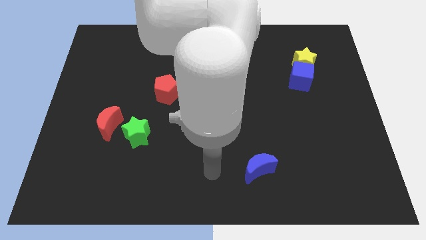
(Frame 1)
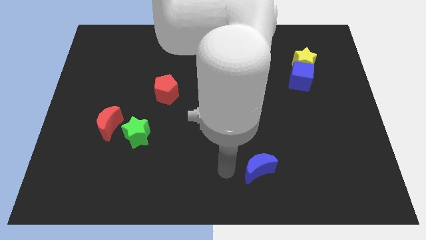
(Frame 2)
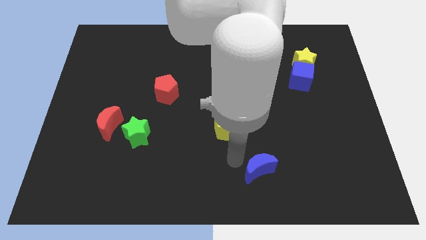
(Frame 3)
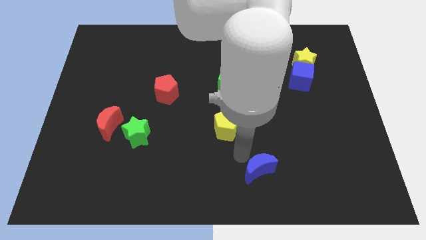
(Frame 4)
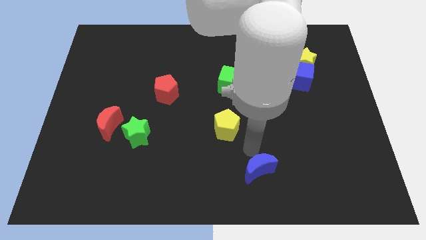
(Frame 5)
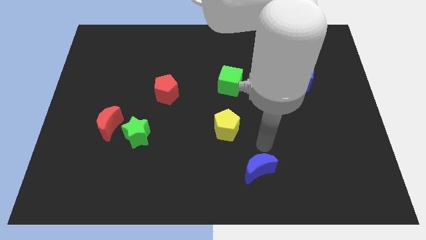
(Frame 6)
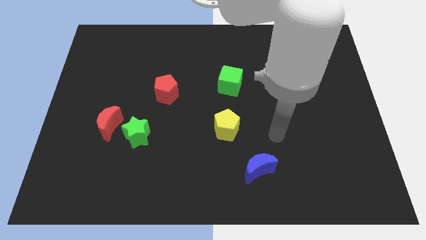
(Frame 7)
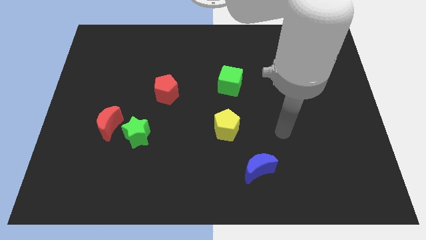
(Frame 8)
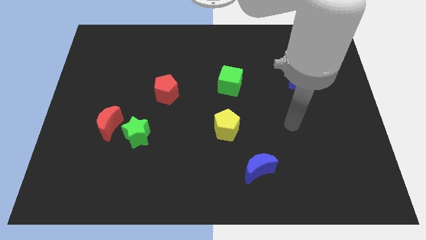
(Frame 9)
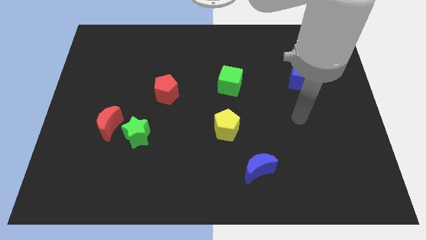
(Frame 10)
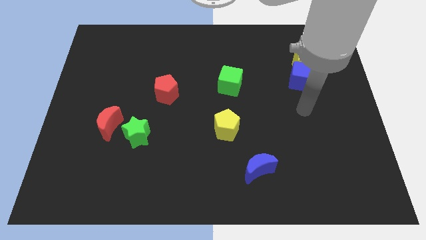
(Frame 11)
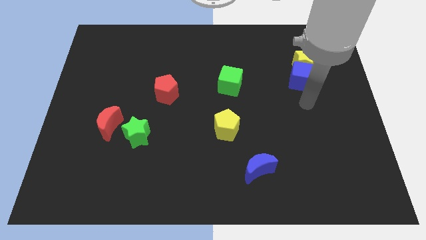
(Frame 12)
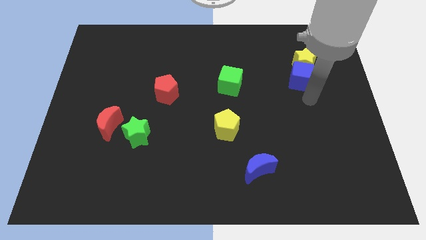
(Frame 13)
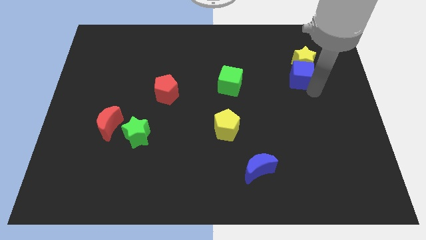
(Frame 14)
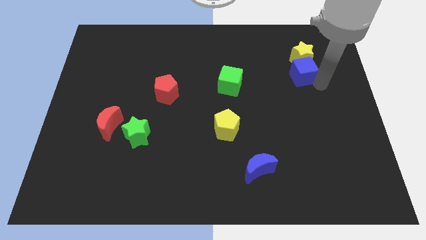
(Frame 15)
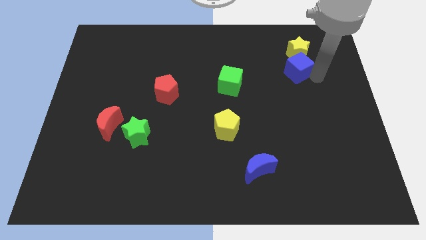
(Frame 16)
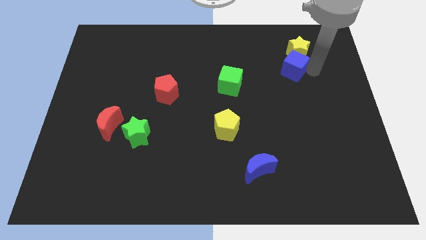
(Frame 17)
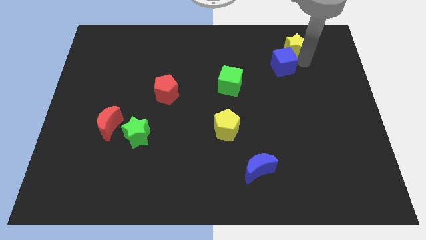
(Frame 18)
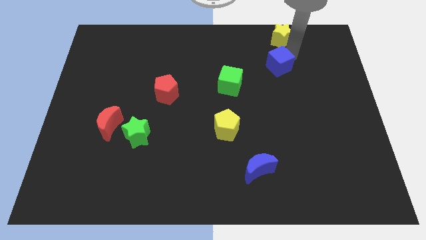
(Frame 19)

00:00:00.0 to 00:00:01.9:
separate the blue cube from the yellow star

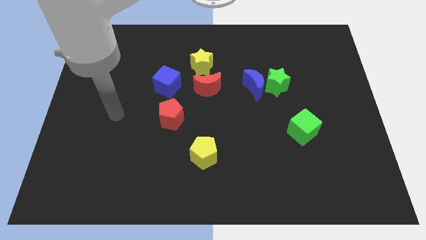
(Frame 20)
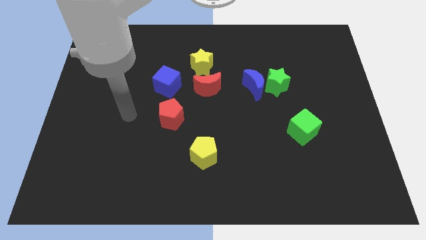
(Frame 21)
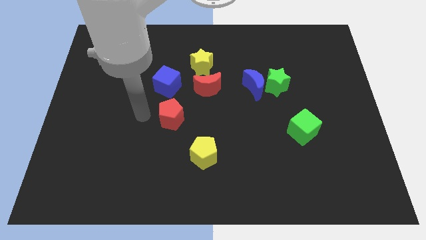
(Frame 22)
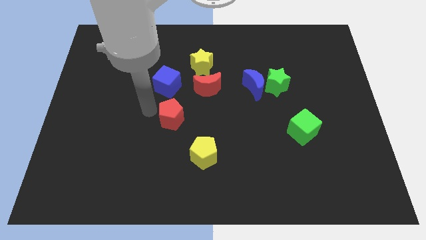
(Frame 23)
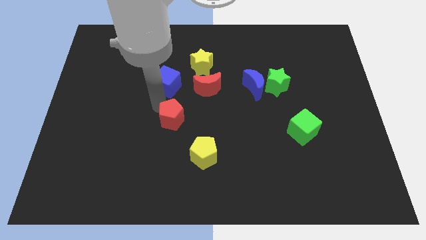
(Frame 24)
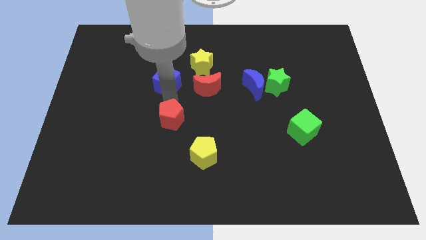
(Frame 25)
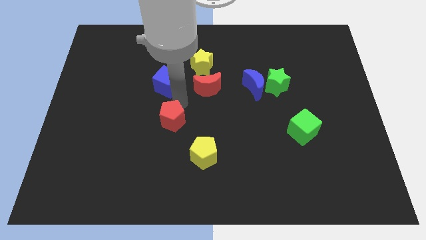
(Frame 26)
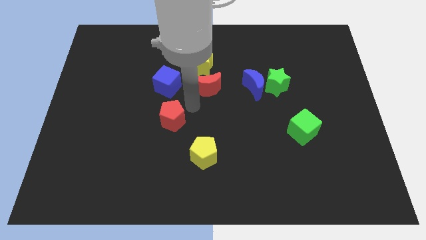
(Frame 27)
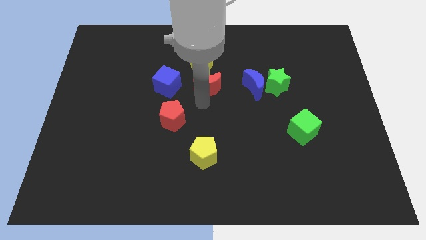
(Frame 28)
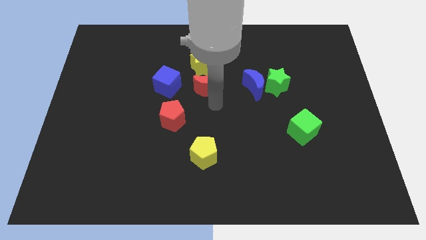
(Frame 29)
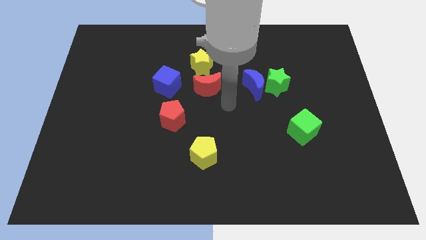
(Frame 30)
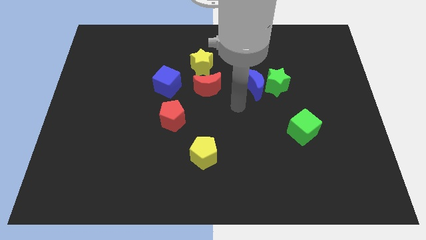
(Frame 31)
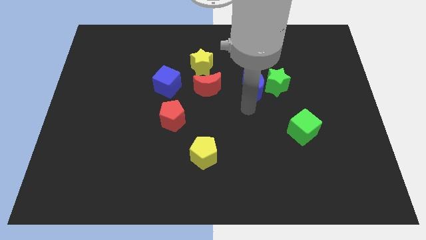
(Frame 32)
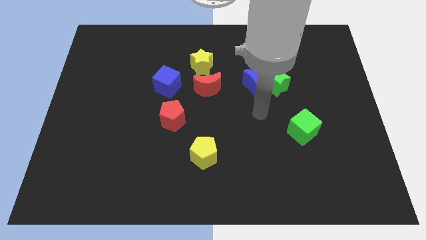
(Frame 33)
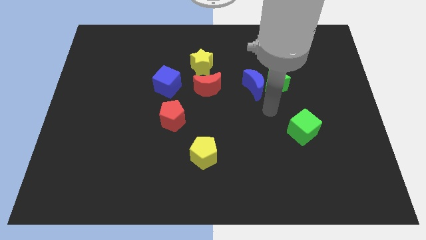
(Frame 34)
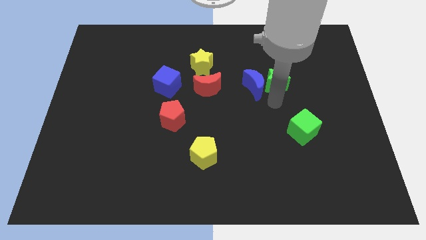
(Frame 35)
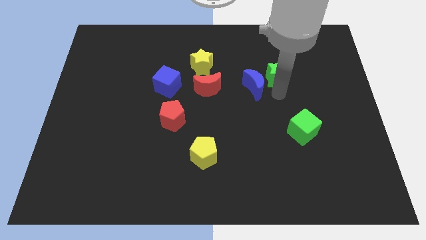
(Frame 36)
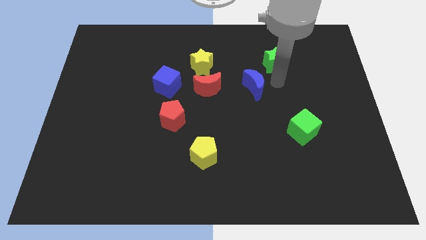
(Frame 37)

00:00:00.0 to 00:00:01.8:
move the blue moon away from the green star

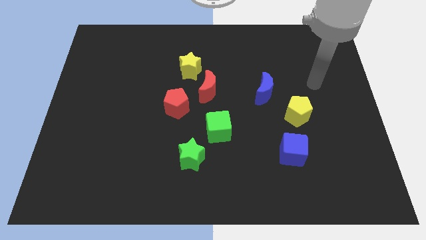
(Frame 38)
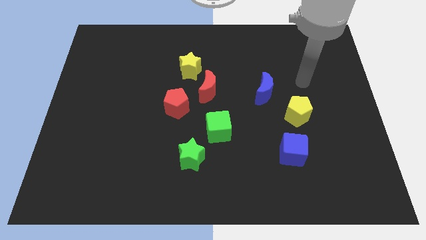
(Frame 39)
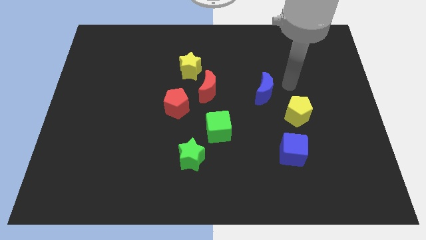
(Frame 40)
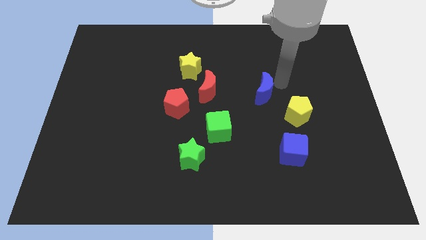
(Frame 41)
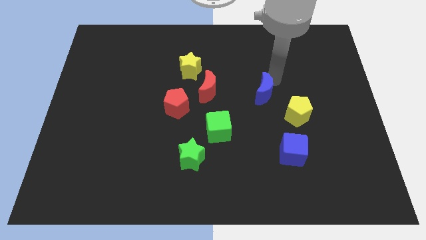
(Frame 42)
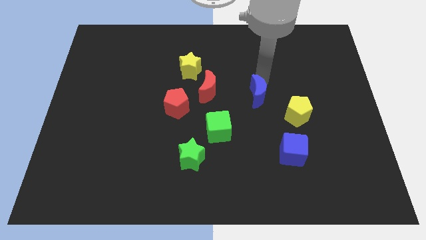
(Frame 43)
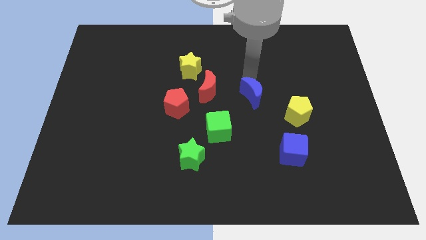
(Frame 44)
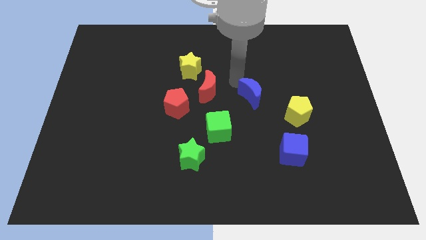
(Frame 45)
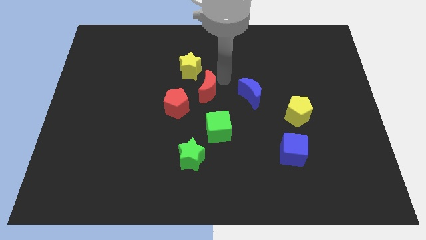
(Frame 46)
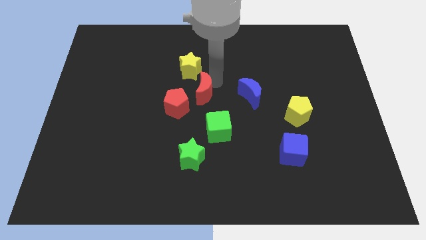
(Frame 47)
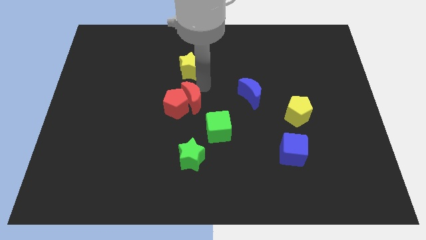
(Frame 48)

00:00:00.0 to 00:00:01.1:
separate the yellow star from the red moon

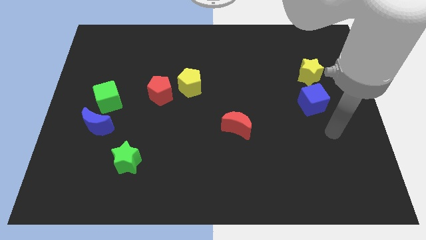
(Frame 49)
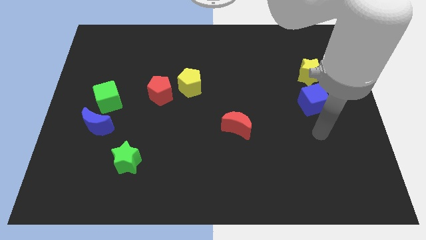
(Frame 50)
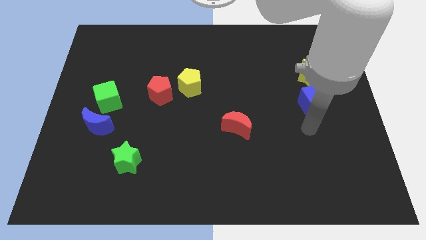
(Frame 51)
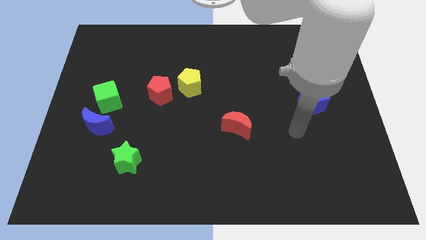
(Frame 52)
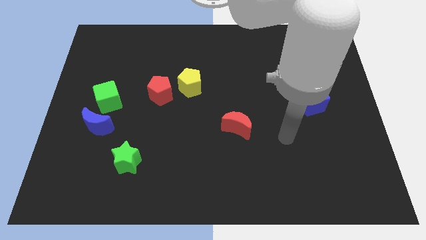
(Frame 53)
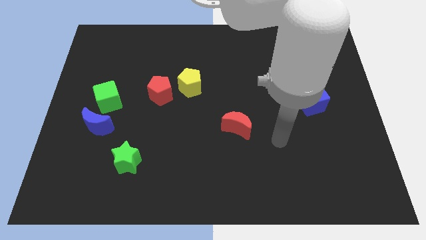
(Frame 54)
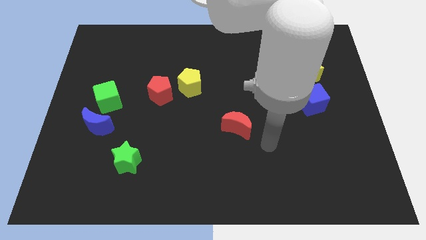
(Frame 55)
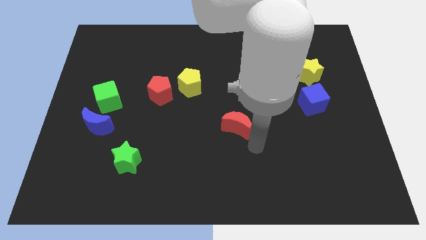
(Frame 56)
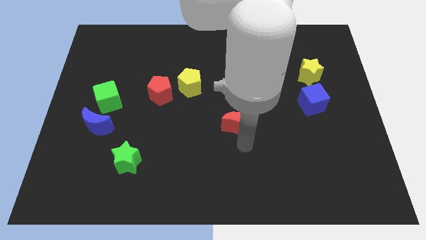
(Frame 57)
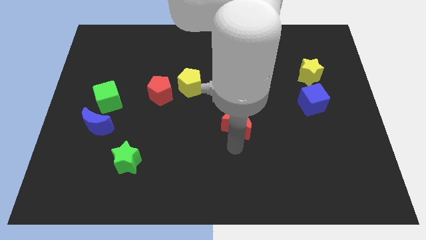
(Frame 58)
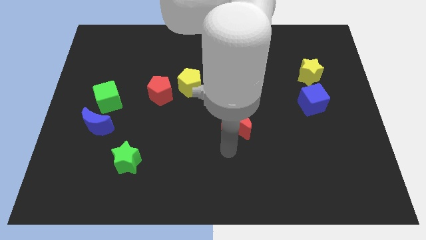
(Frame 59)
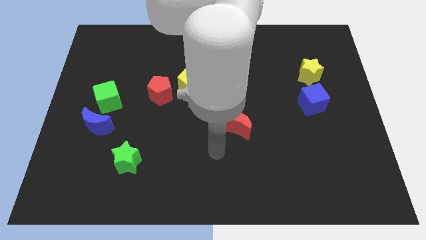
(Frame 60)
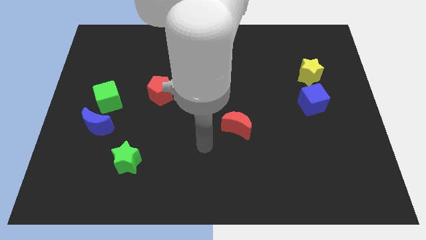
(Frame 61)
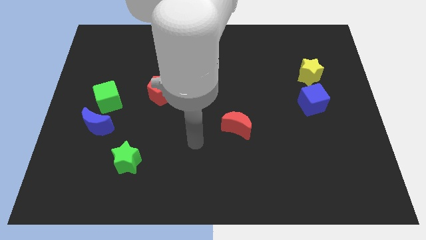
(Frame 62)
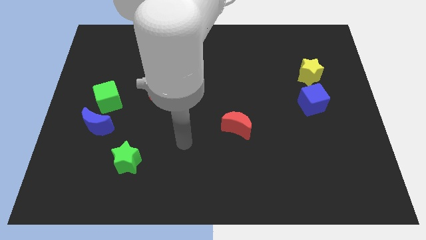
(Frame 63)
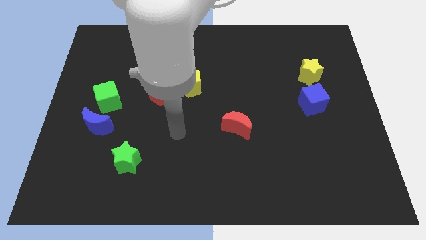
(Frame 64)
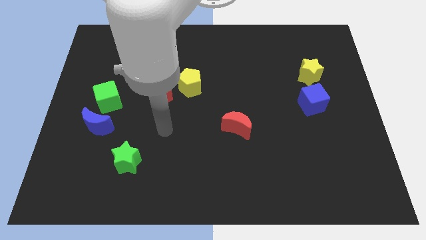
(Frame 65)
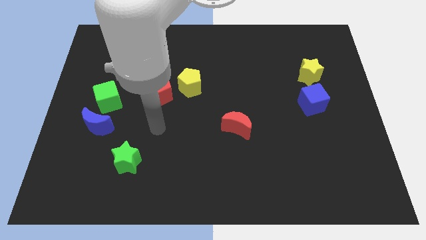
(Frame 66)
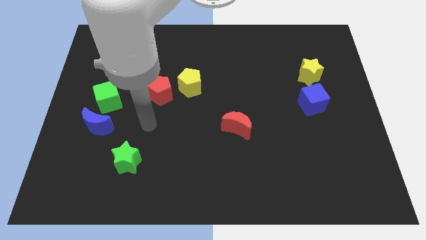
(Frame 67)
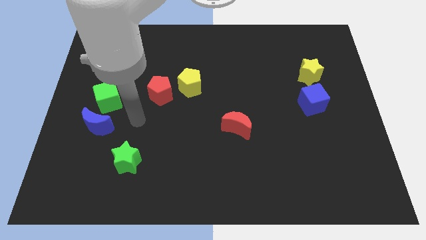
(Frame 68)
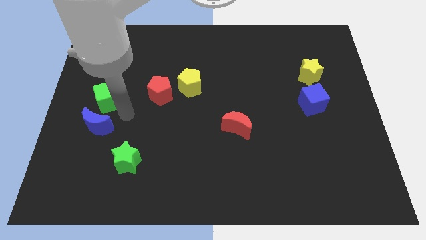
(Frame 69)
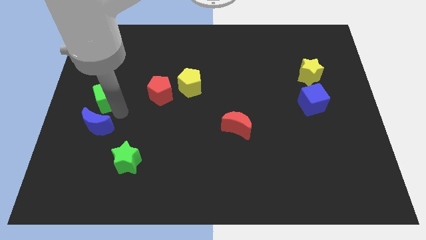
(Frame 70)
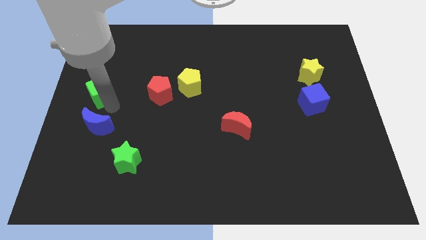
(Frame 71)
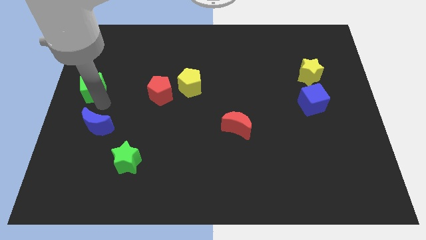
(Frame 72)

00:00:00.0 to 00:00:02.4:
separate the blue moon from the green cube

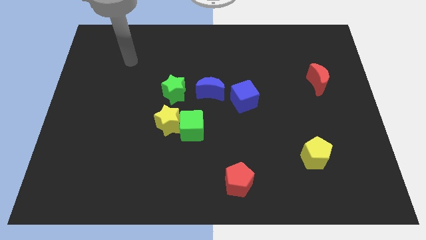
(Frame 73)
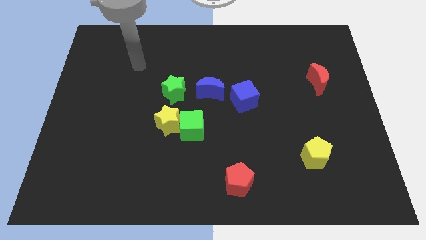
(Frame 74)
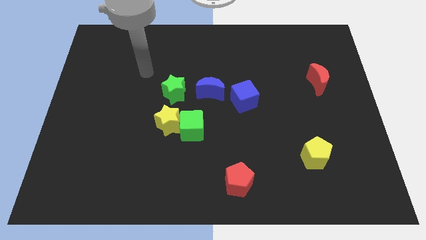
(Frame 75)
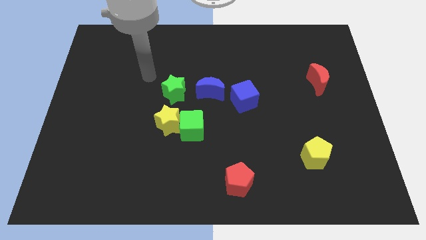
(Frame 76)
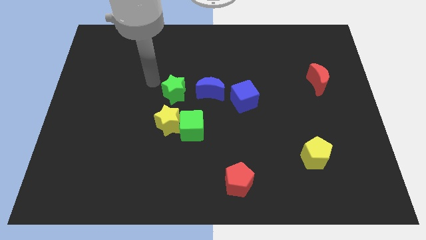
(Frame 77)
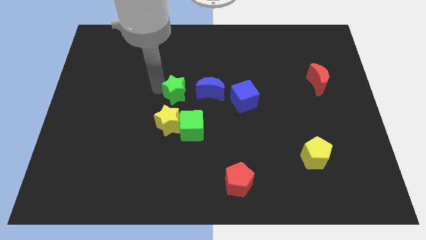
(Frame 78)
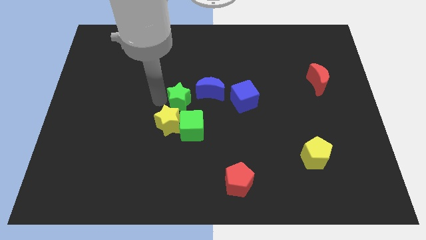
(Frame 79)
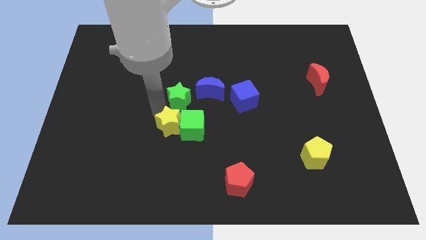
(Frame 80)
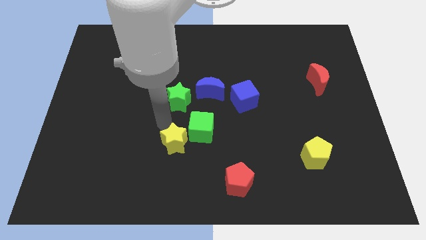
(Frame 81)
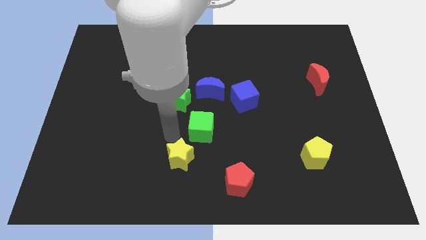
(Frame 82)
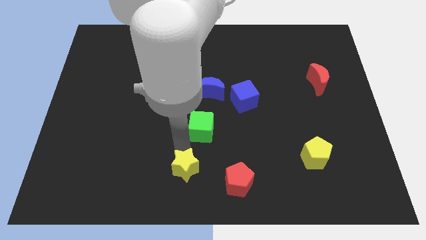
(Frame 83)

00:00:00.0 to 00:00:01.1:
separate the green cube from the yellow star

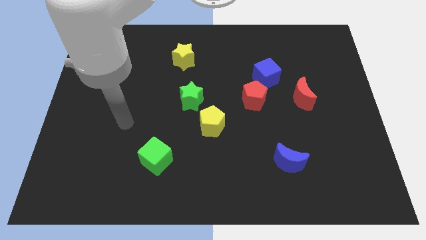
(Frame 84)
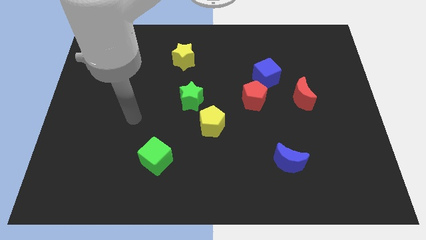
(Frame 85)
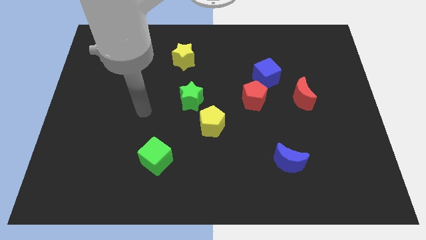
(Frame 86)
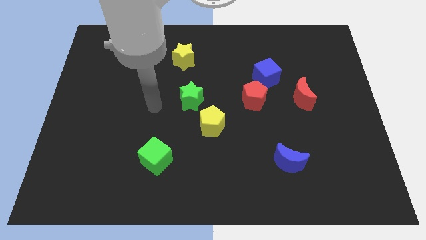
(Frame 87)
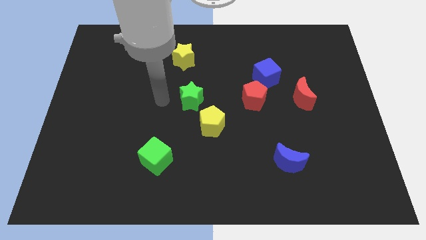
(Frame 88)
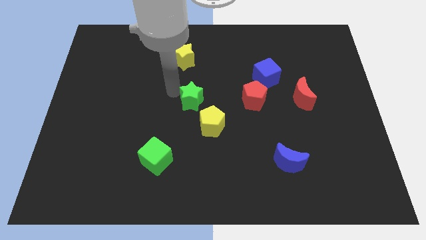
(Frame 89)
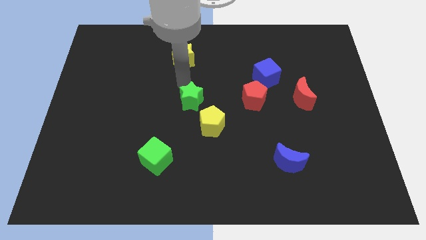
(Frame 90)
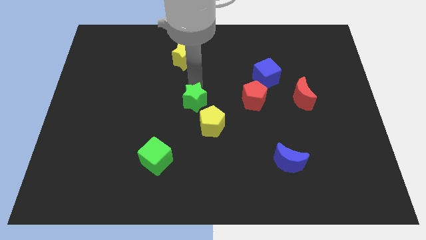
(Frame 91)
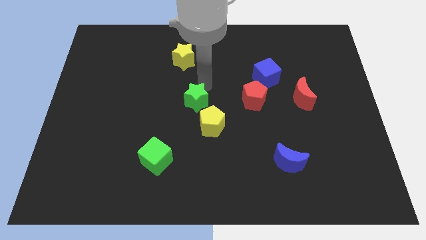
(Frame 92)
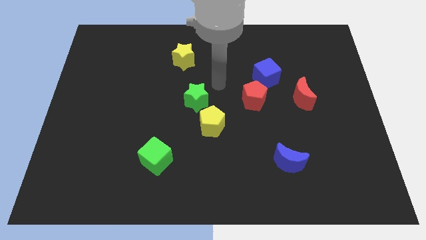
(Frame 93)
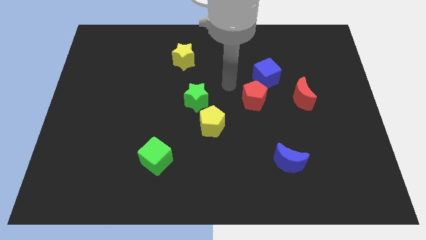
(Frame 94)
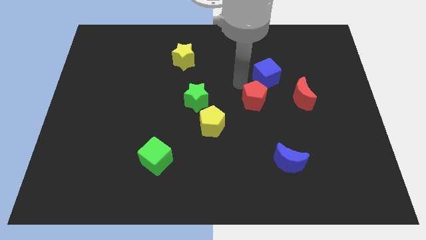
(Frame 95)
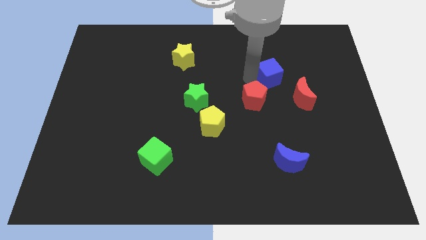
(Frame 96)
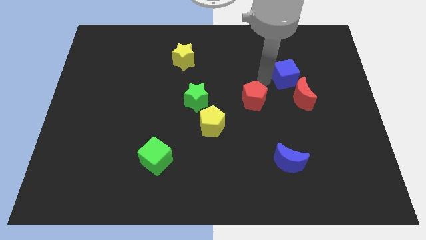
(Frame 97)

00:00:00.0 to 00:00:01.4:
separate the red pentagon from the blue cube
